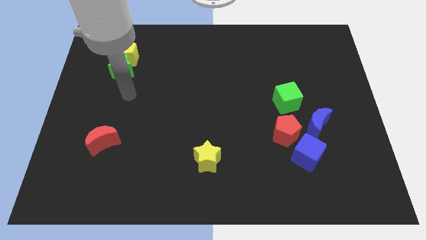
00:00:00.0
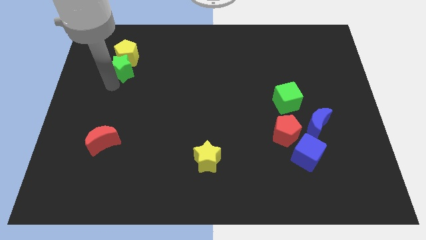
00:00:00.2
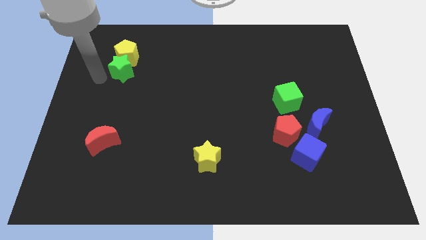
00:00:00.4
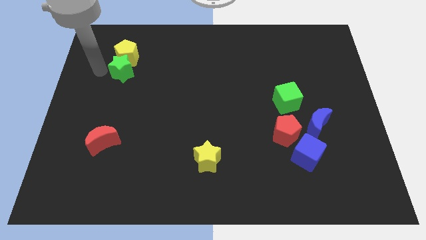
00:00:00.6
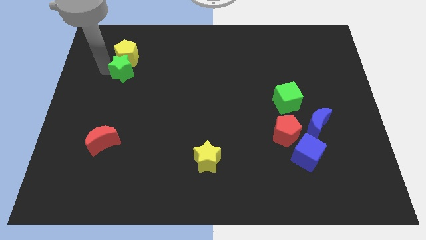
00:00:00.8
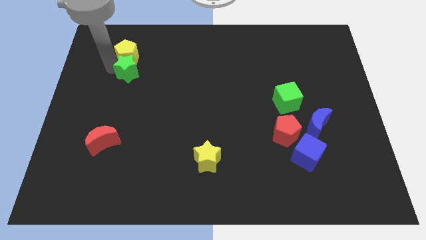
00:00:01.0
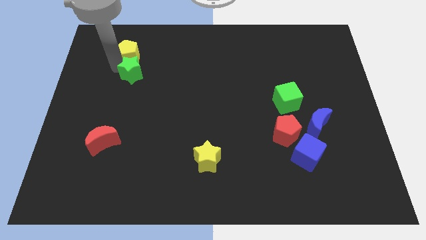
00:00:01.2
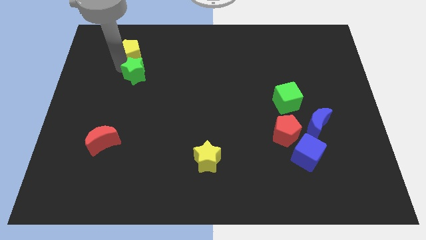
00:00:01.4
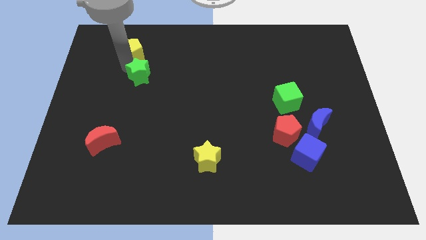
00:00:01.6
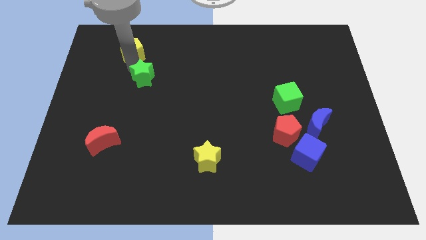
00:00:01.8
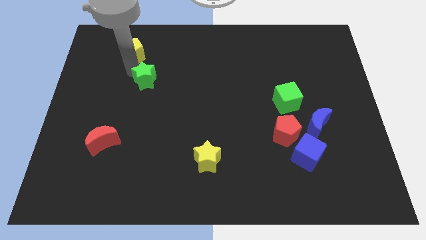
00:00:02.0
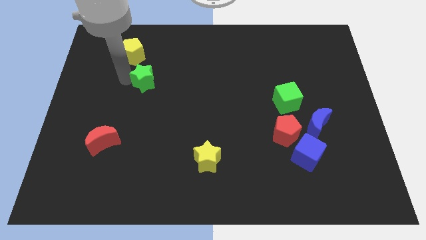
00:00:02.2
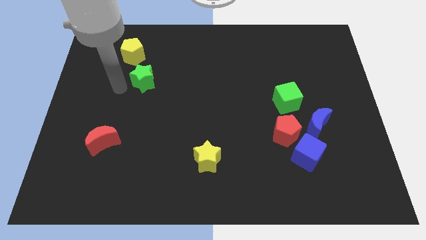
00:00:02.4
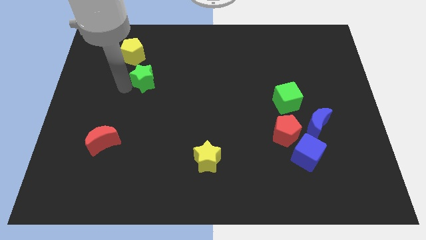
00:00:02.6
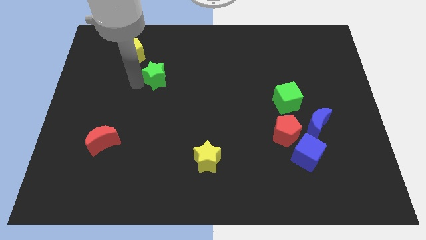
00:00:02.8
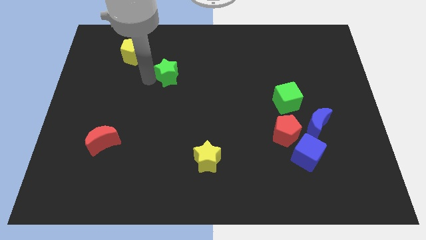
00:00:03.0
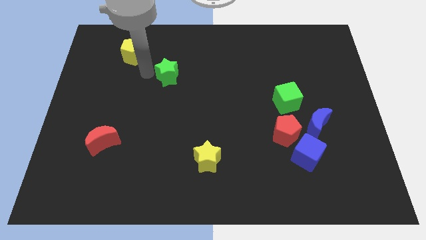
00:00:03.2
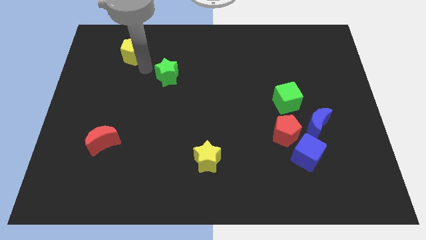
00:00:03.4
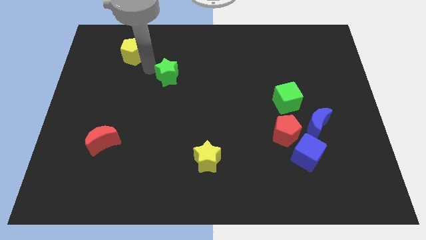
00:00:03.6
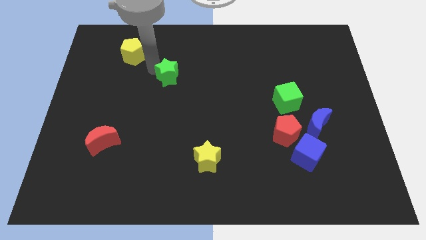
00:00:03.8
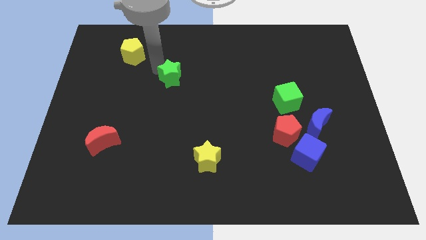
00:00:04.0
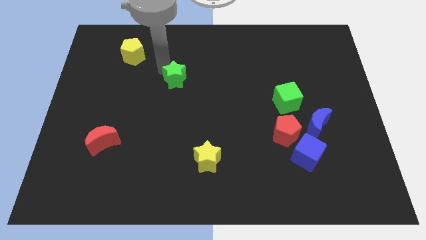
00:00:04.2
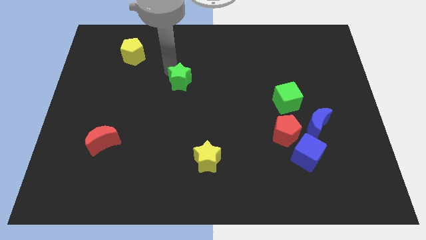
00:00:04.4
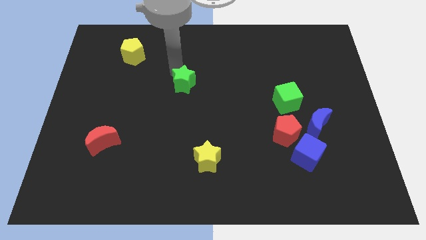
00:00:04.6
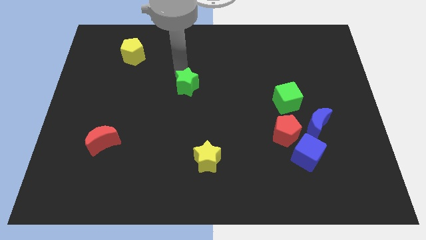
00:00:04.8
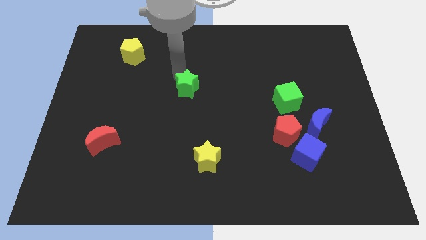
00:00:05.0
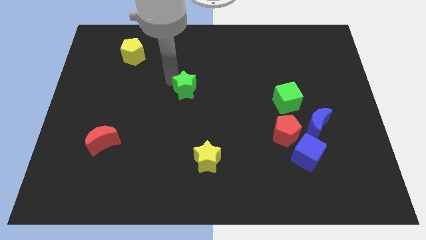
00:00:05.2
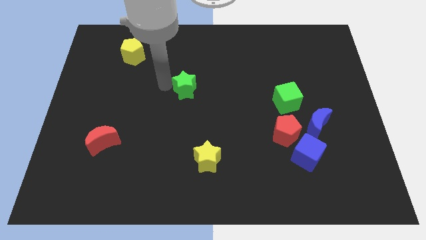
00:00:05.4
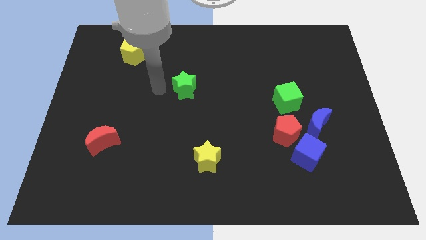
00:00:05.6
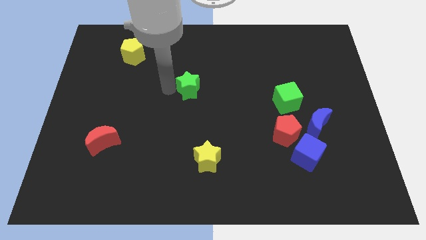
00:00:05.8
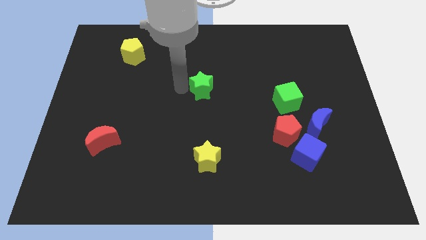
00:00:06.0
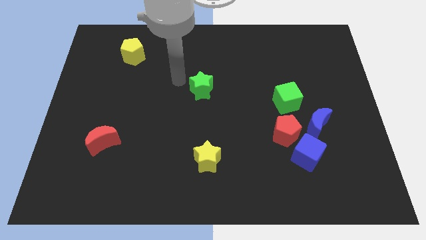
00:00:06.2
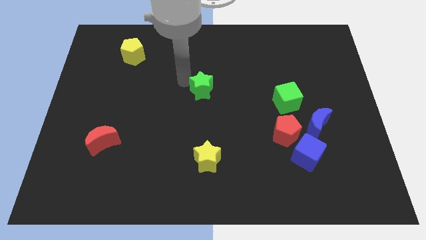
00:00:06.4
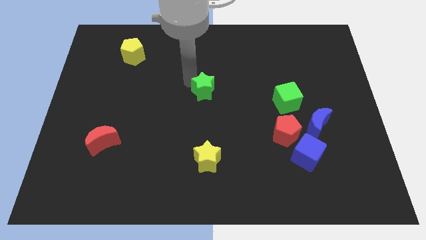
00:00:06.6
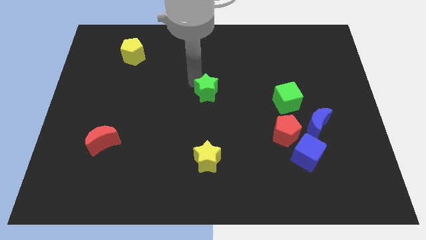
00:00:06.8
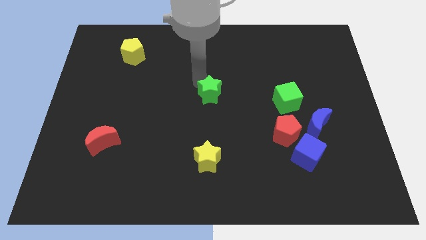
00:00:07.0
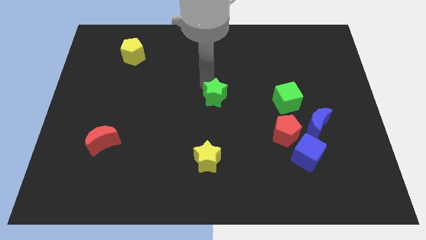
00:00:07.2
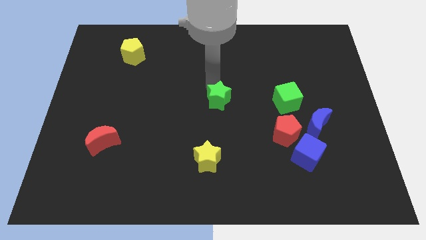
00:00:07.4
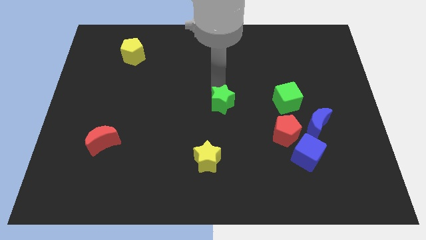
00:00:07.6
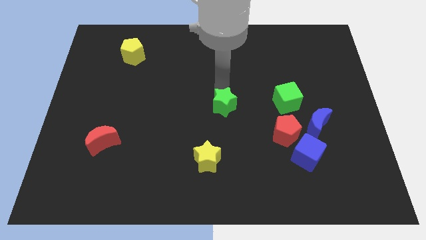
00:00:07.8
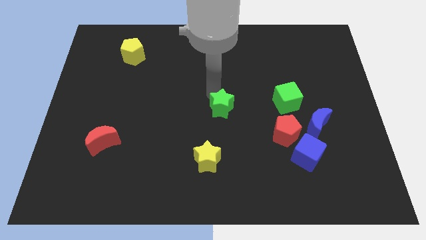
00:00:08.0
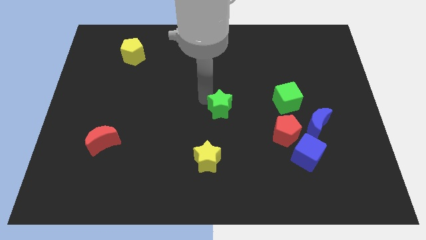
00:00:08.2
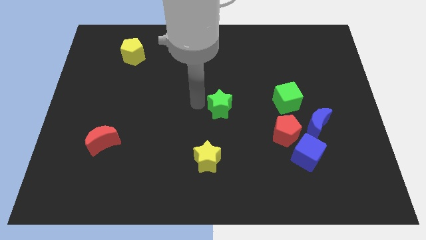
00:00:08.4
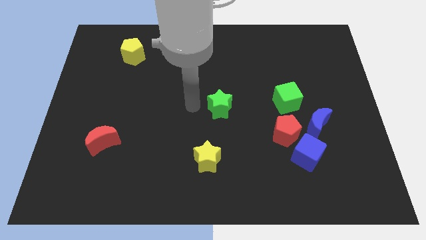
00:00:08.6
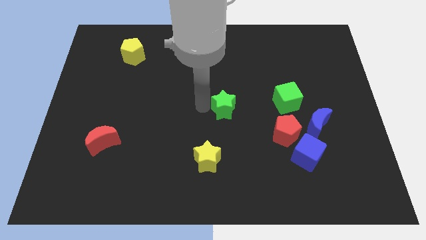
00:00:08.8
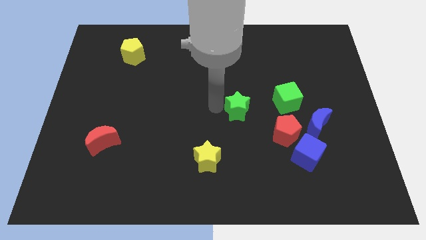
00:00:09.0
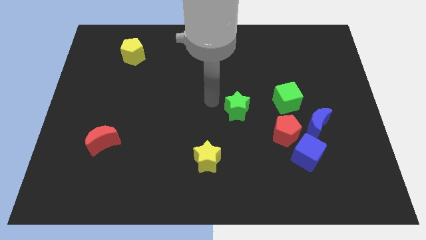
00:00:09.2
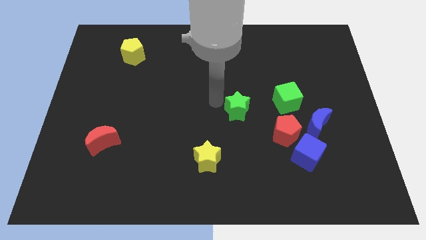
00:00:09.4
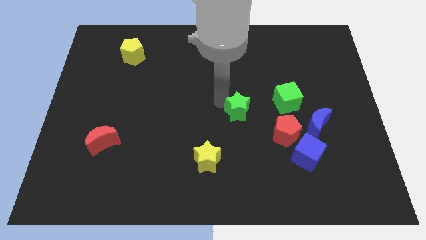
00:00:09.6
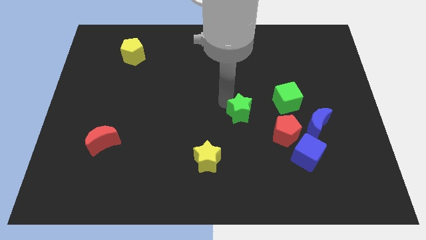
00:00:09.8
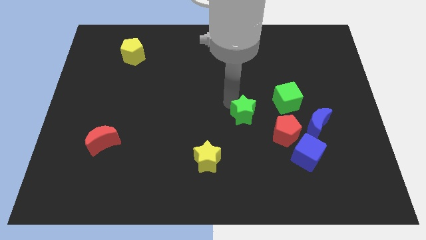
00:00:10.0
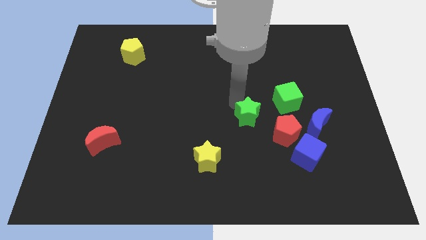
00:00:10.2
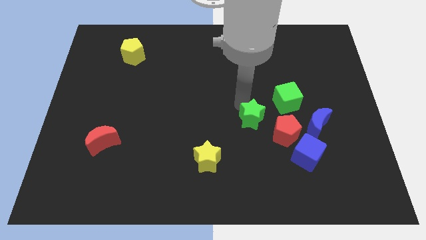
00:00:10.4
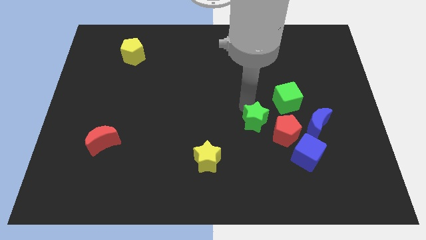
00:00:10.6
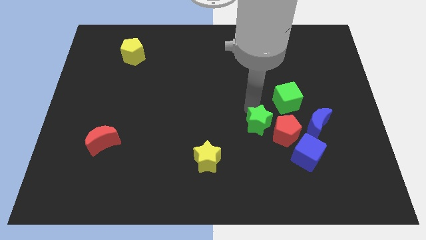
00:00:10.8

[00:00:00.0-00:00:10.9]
put the green star diagonally up and to the left of the blue cube

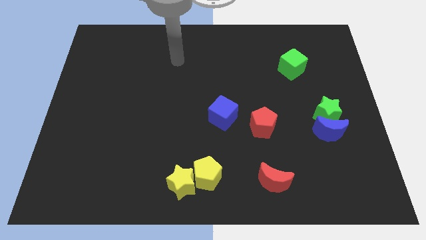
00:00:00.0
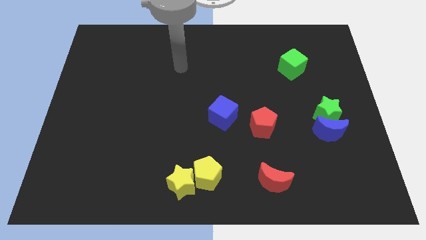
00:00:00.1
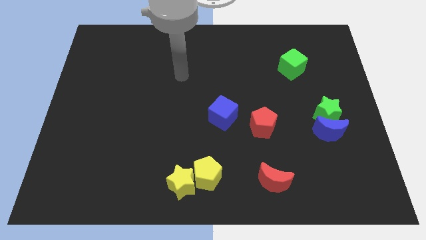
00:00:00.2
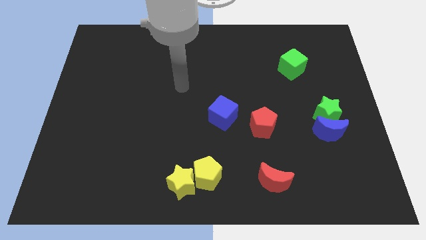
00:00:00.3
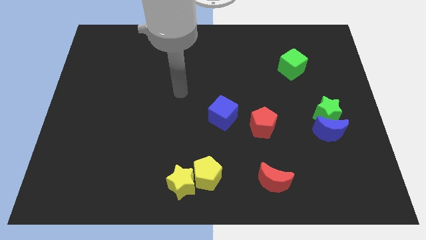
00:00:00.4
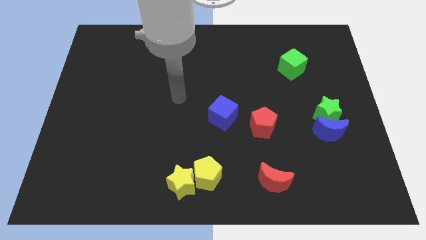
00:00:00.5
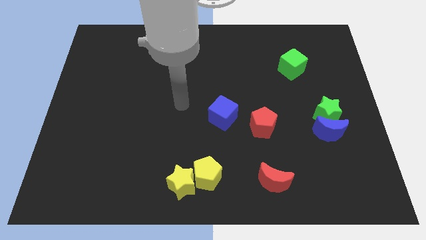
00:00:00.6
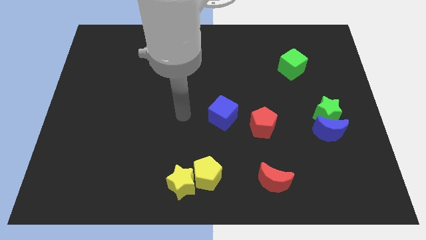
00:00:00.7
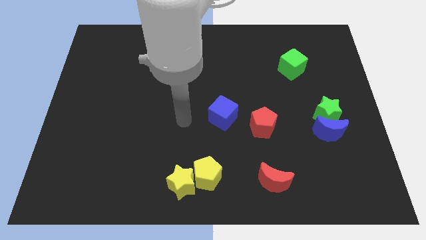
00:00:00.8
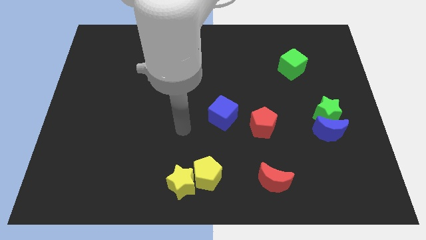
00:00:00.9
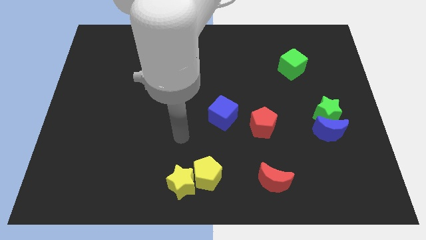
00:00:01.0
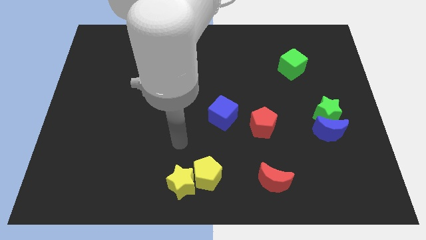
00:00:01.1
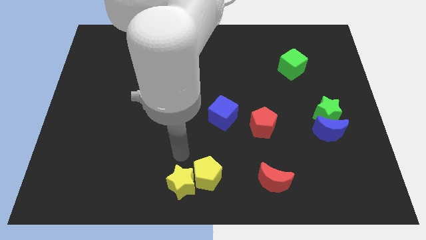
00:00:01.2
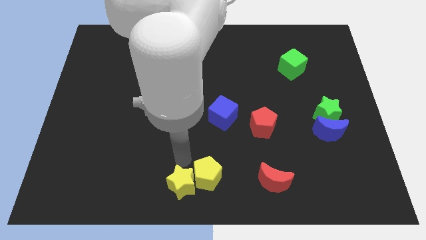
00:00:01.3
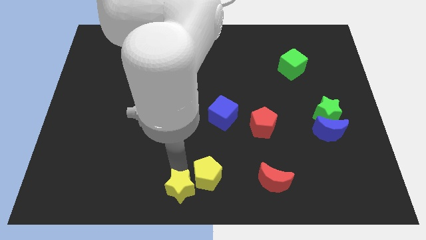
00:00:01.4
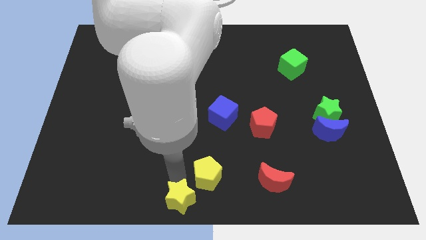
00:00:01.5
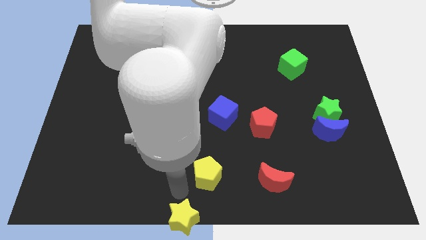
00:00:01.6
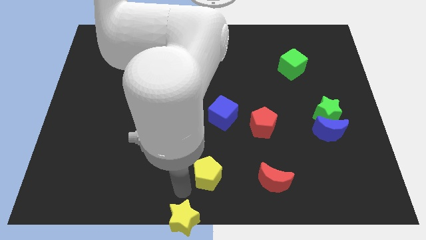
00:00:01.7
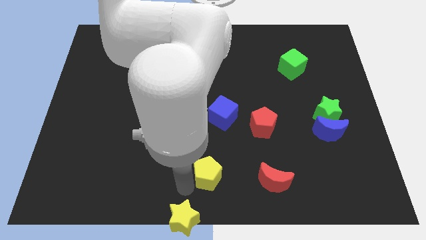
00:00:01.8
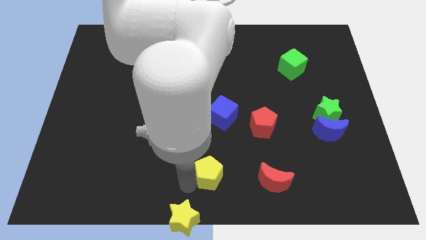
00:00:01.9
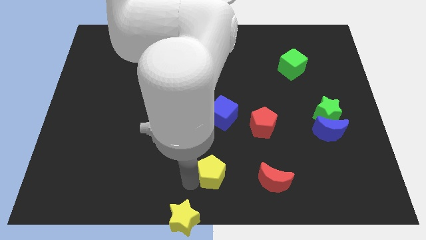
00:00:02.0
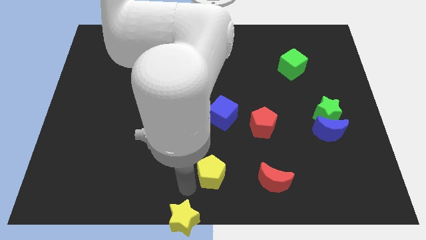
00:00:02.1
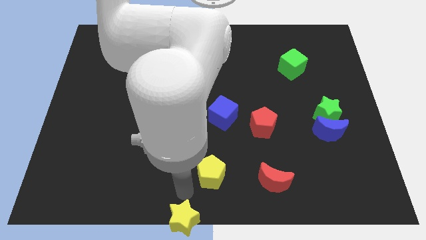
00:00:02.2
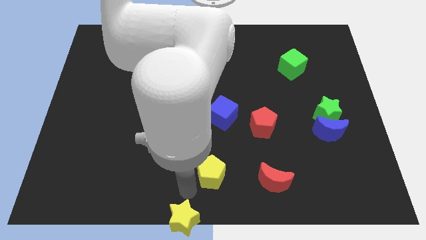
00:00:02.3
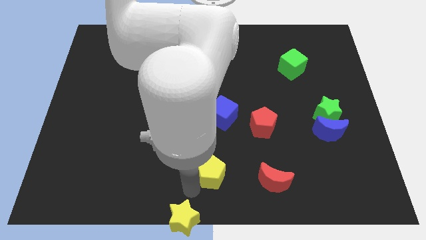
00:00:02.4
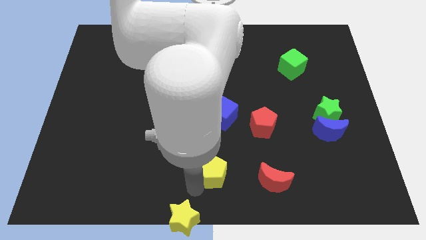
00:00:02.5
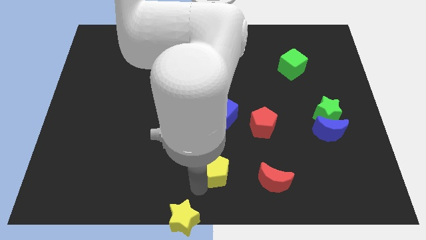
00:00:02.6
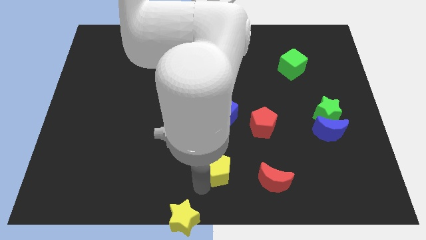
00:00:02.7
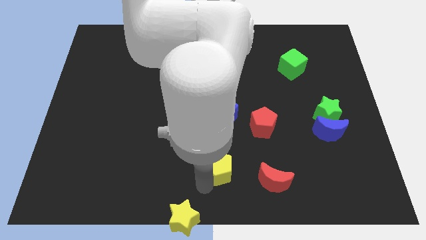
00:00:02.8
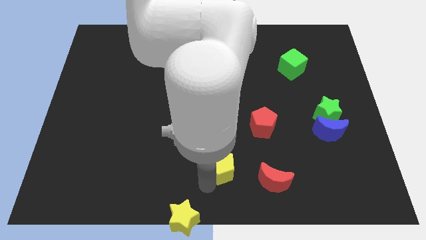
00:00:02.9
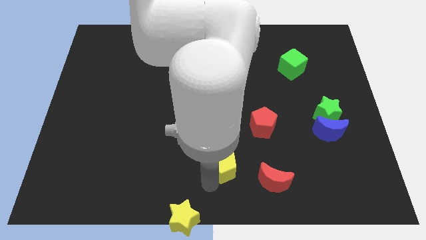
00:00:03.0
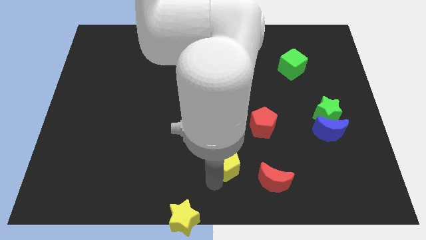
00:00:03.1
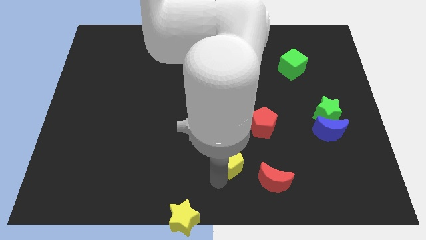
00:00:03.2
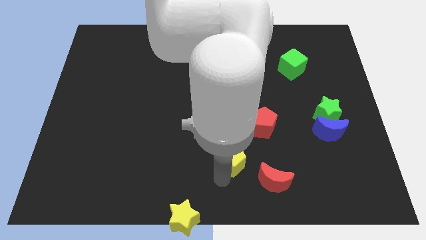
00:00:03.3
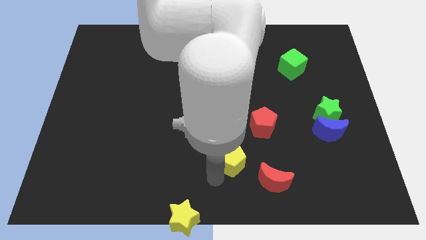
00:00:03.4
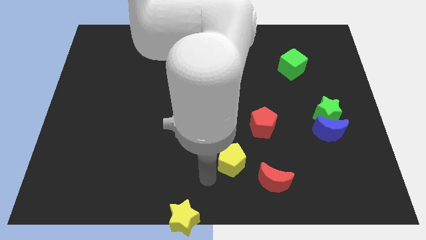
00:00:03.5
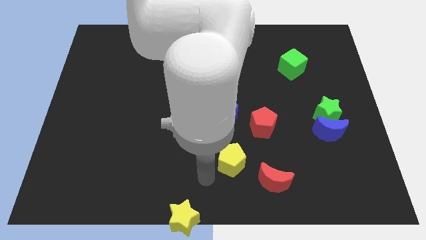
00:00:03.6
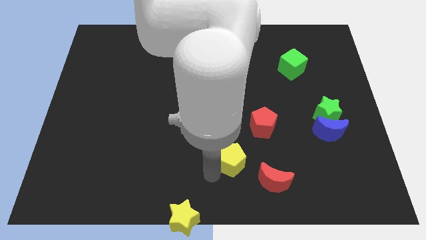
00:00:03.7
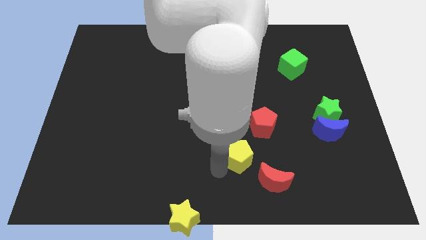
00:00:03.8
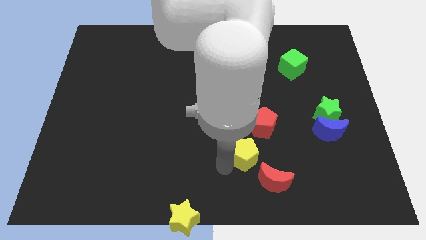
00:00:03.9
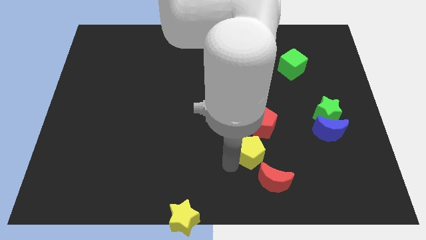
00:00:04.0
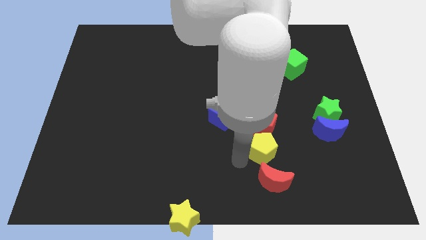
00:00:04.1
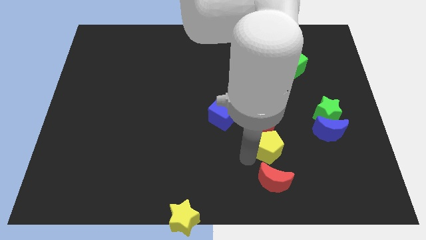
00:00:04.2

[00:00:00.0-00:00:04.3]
put the yellow pentagon to the left of the blue moon
